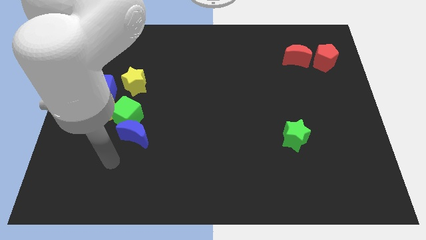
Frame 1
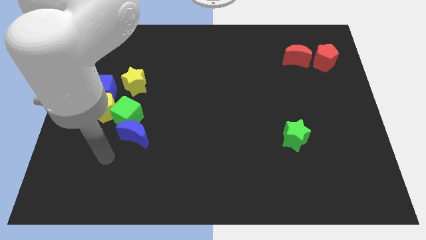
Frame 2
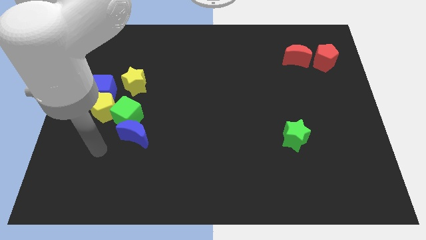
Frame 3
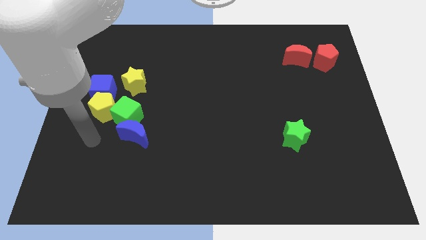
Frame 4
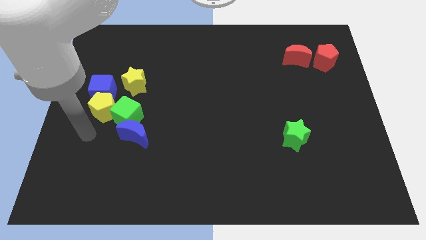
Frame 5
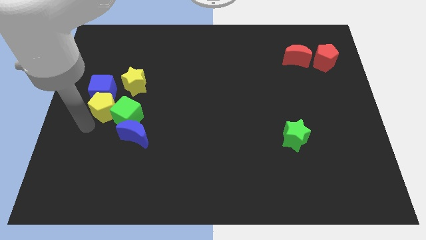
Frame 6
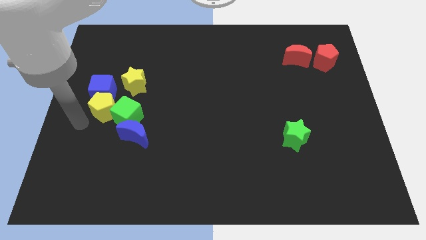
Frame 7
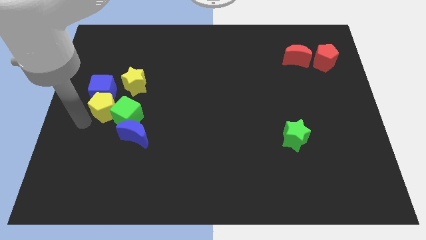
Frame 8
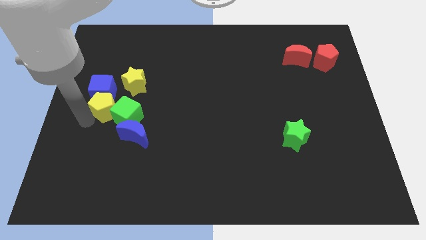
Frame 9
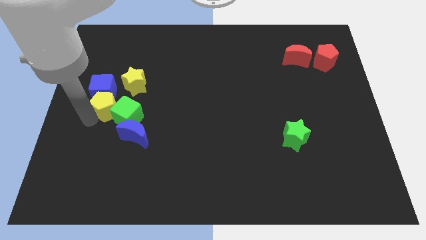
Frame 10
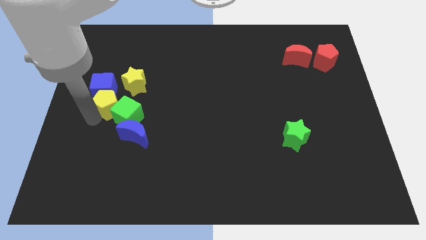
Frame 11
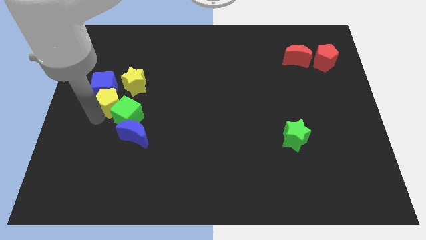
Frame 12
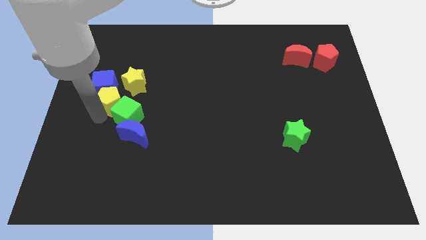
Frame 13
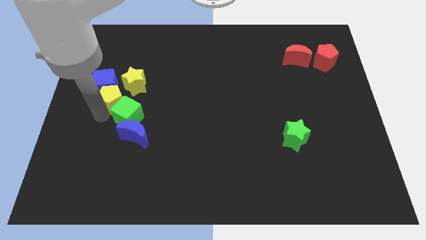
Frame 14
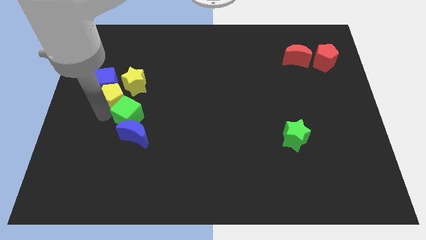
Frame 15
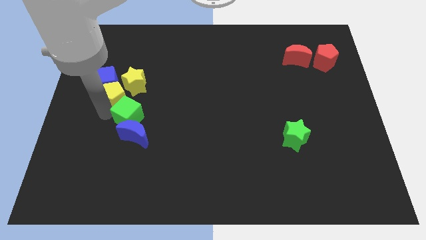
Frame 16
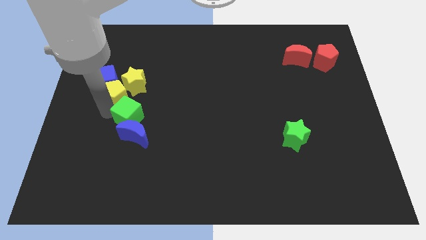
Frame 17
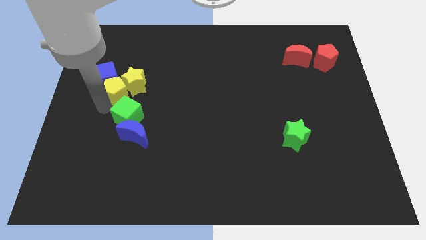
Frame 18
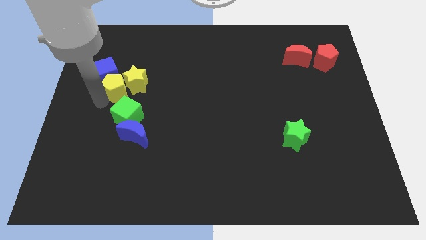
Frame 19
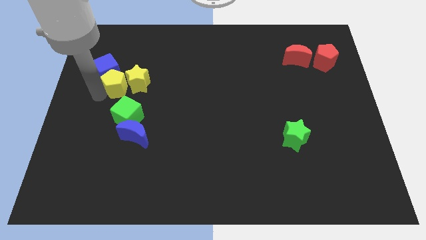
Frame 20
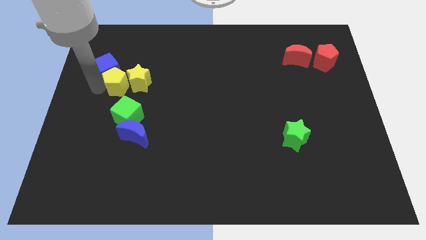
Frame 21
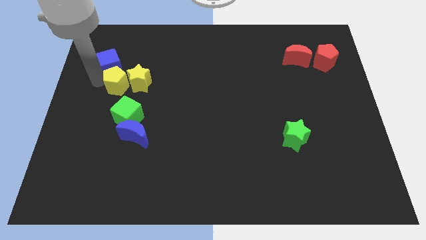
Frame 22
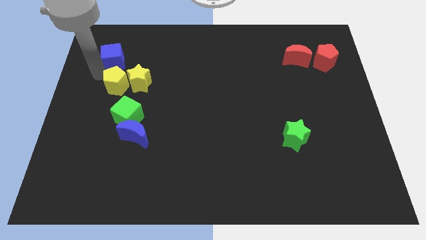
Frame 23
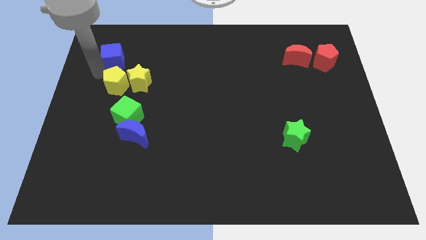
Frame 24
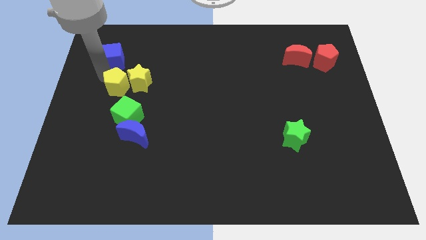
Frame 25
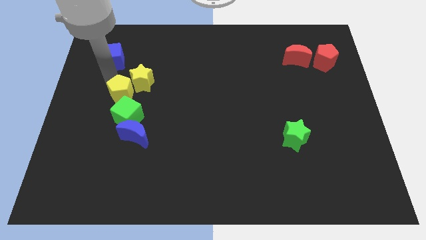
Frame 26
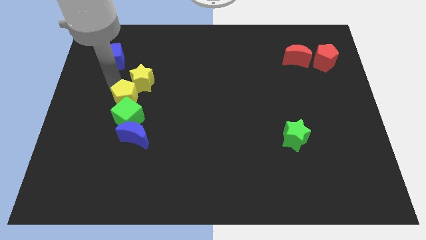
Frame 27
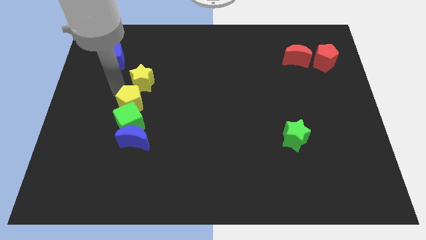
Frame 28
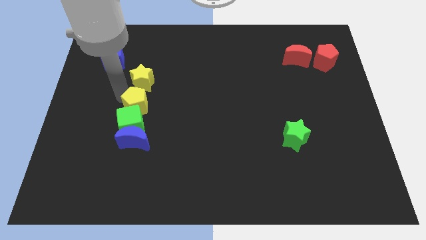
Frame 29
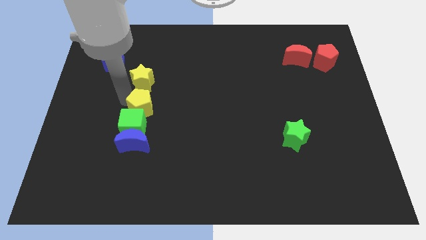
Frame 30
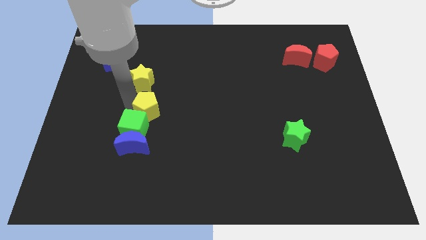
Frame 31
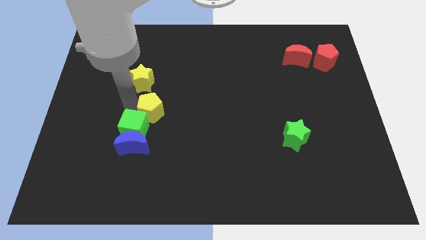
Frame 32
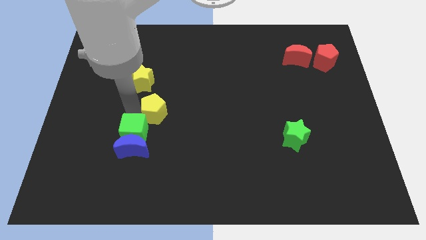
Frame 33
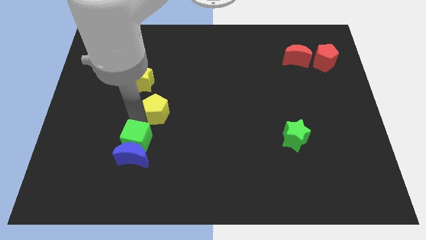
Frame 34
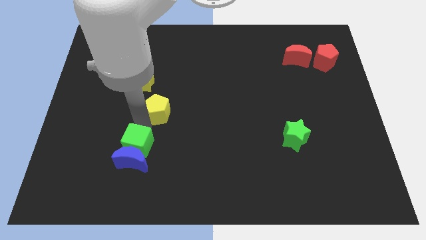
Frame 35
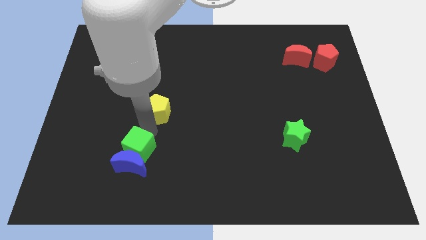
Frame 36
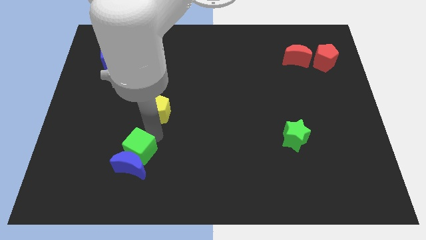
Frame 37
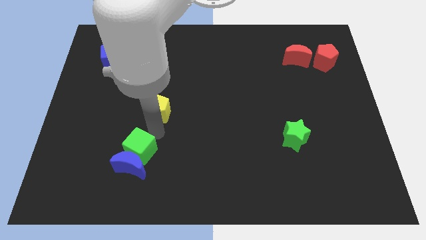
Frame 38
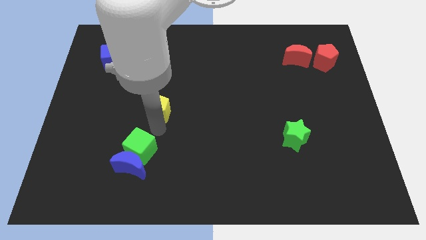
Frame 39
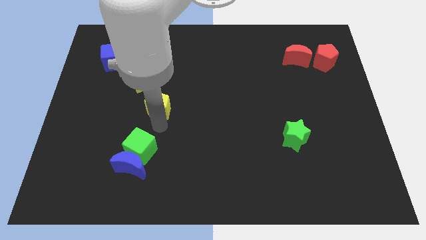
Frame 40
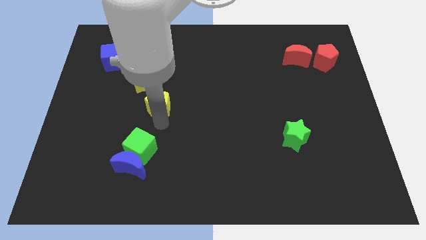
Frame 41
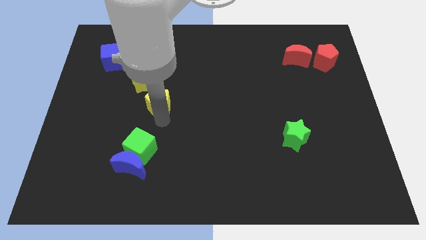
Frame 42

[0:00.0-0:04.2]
move the yellow pentagon upwards and to the right a little bit

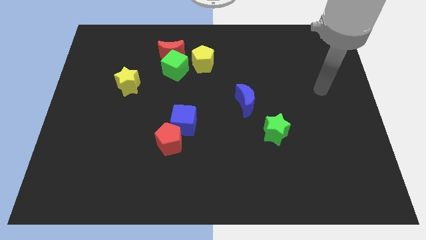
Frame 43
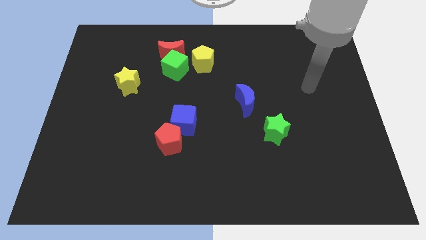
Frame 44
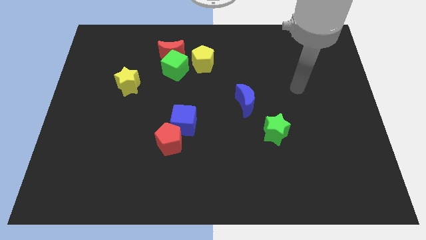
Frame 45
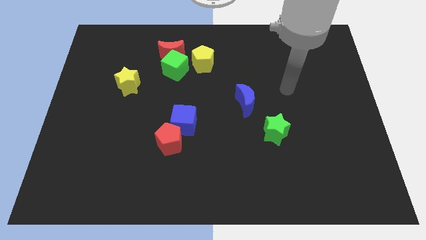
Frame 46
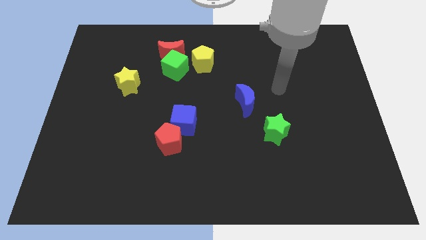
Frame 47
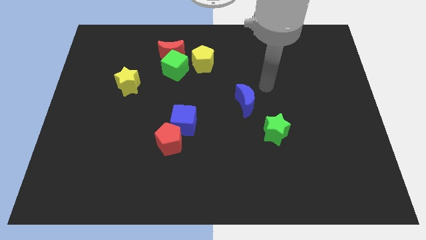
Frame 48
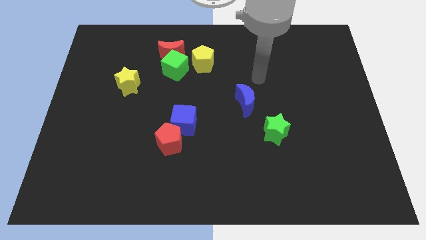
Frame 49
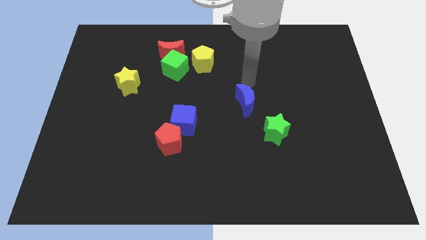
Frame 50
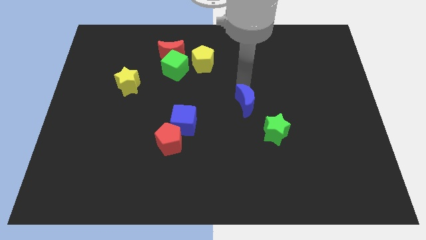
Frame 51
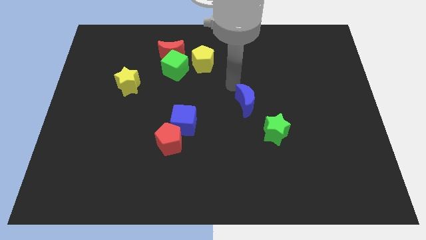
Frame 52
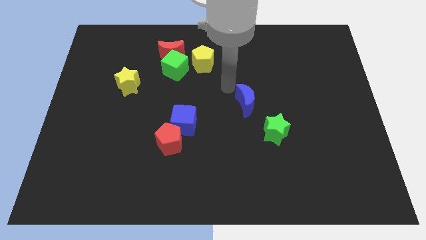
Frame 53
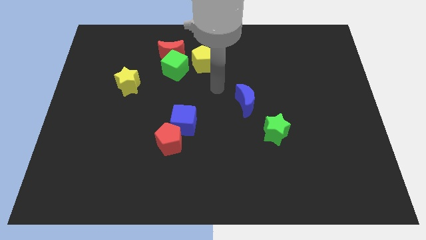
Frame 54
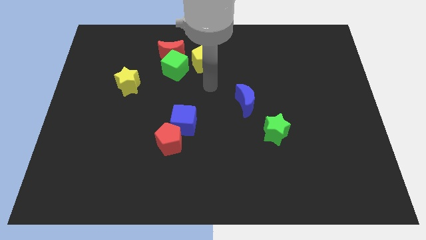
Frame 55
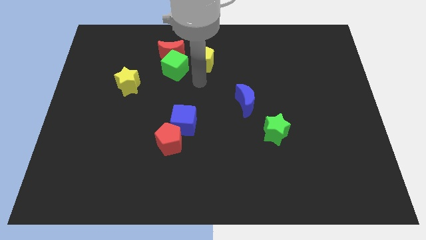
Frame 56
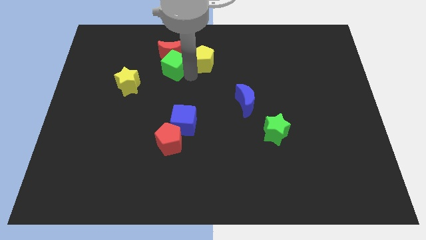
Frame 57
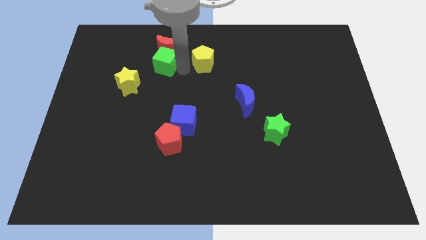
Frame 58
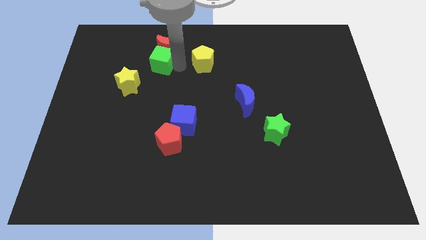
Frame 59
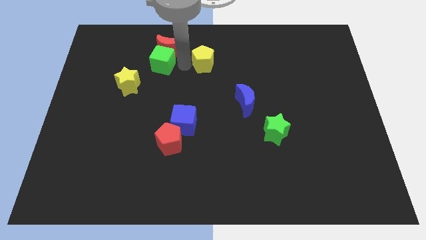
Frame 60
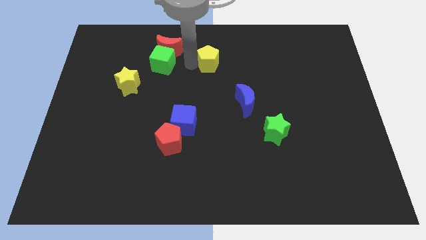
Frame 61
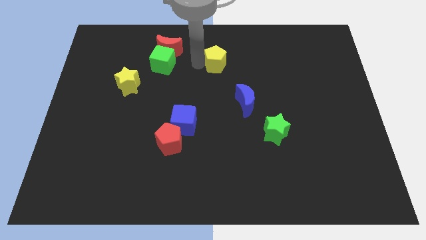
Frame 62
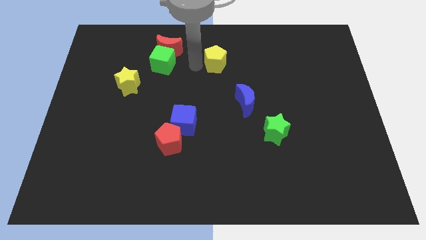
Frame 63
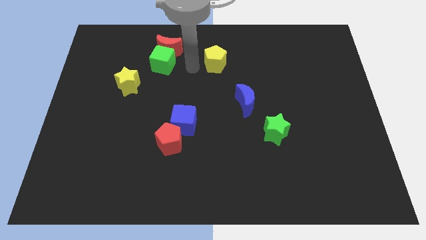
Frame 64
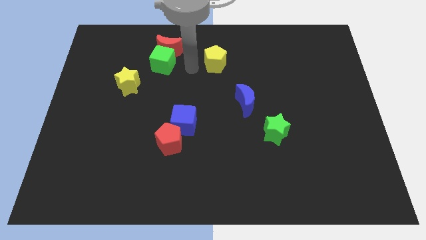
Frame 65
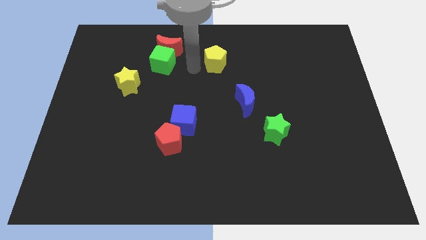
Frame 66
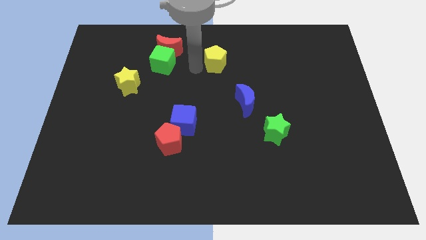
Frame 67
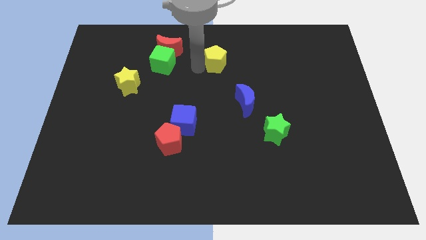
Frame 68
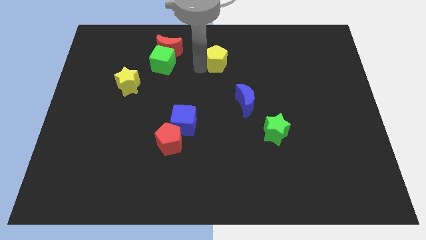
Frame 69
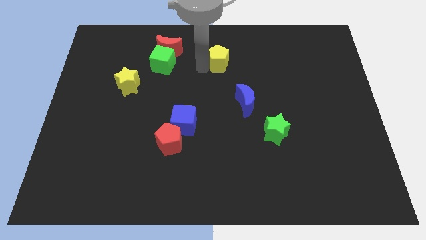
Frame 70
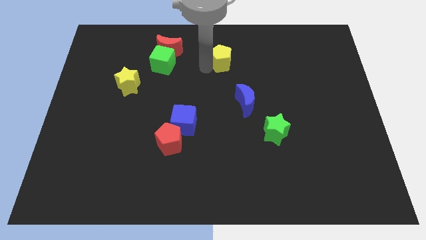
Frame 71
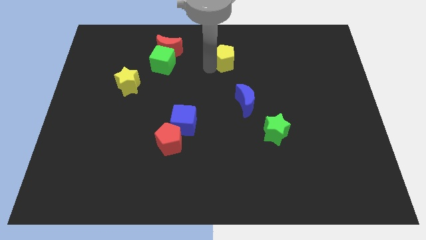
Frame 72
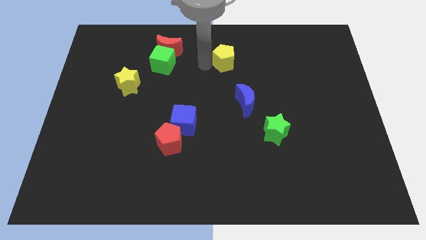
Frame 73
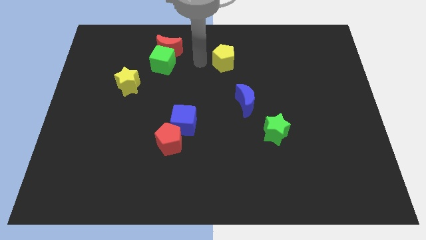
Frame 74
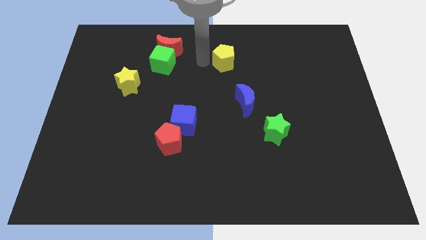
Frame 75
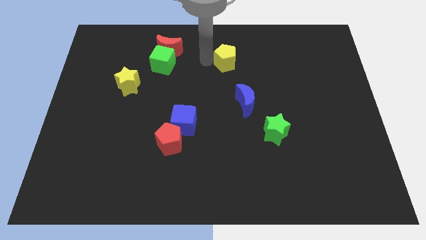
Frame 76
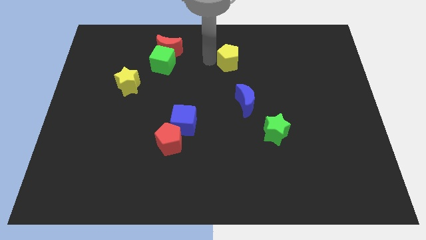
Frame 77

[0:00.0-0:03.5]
slightly move the yellow pentagon to the right

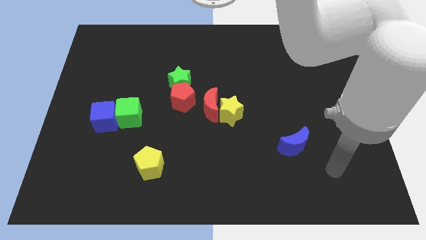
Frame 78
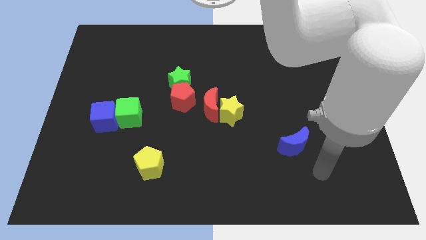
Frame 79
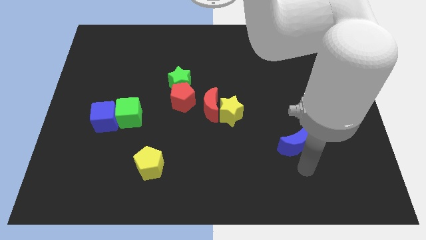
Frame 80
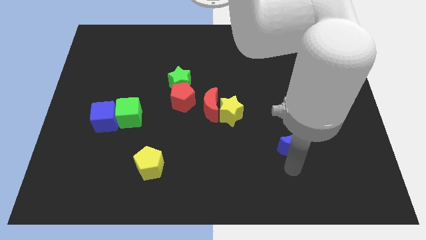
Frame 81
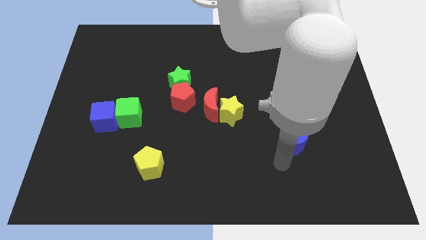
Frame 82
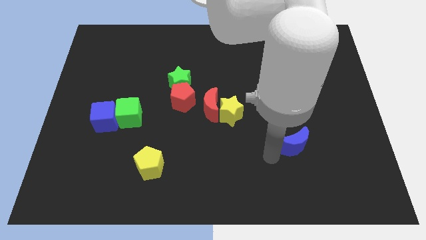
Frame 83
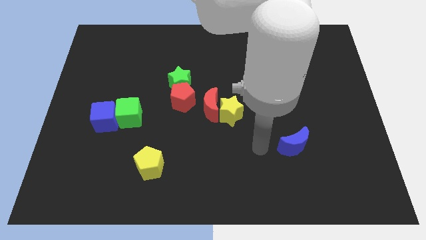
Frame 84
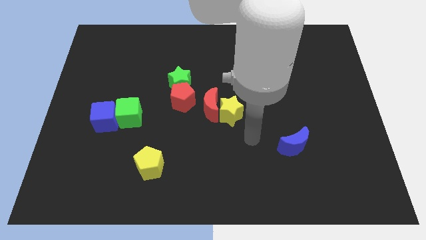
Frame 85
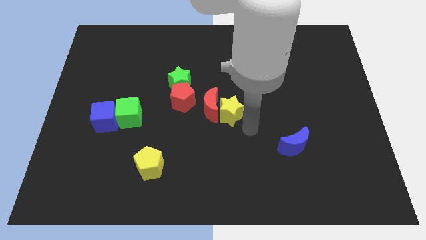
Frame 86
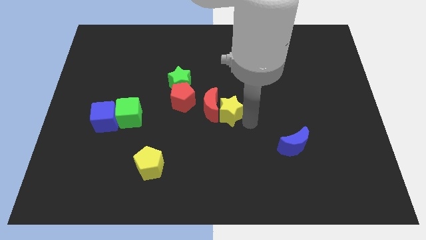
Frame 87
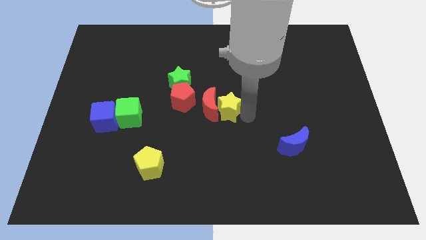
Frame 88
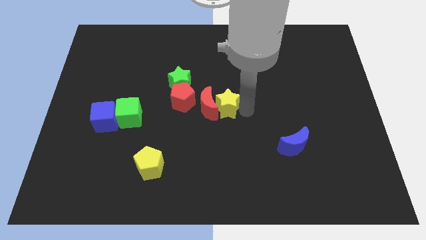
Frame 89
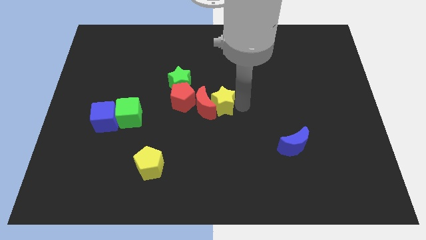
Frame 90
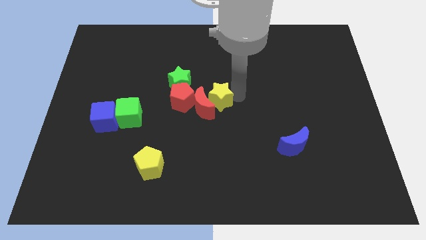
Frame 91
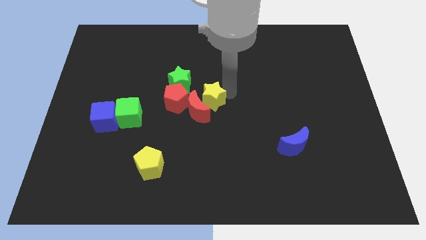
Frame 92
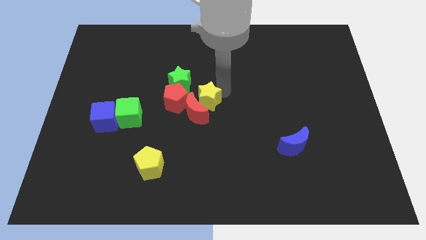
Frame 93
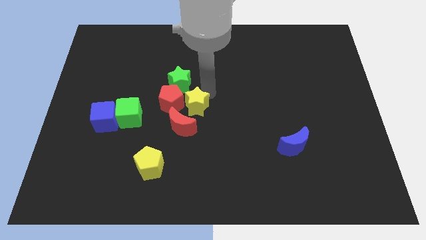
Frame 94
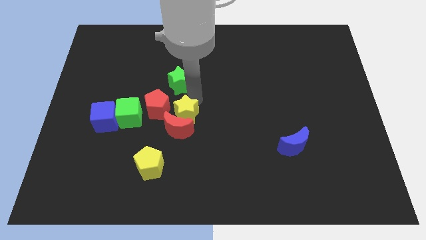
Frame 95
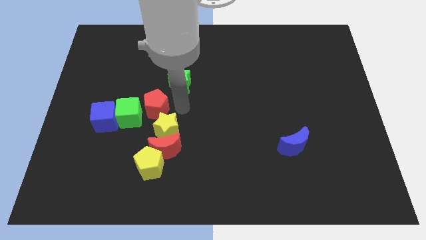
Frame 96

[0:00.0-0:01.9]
slightly move the red moon downwards
